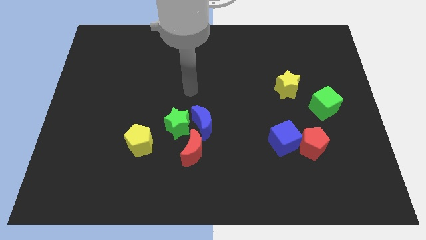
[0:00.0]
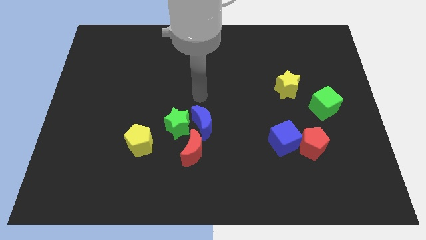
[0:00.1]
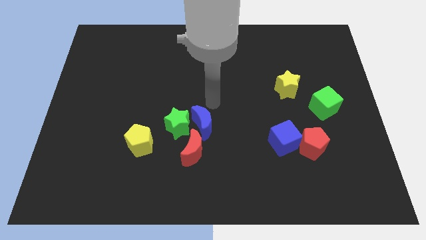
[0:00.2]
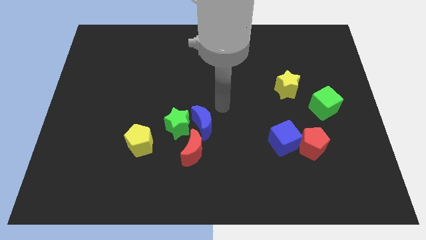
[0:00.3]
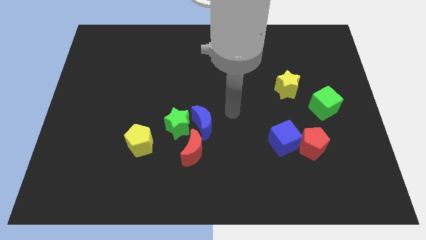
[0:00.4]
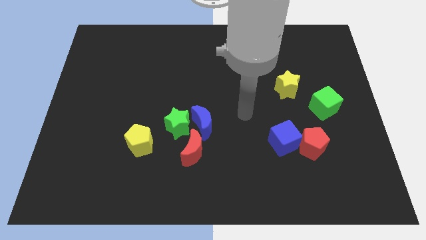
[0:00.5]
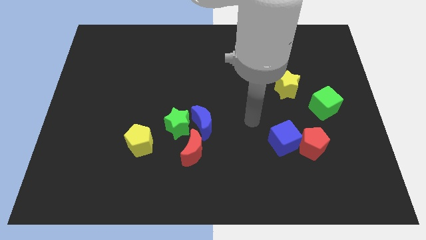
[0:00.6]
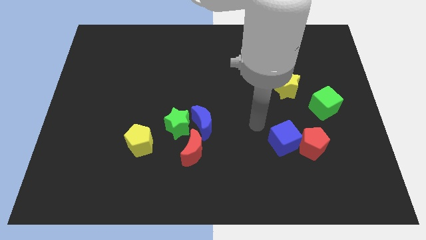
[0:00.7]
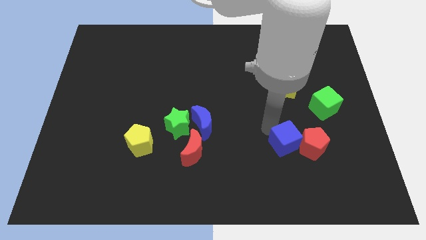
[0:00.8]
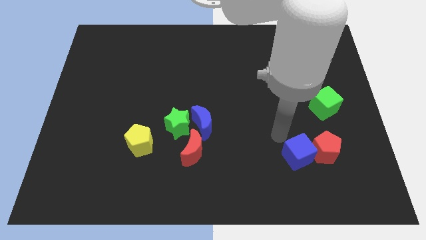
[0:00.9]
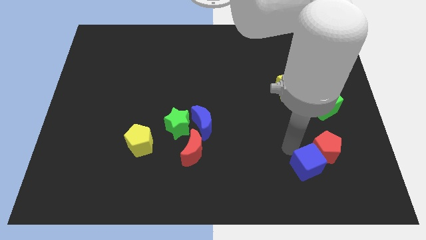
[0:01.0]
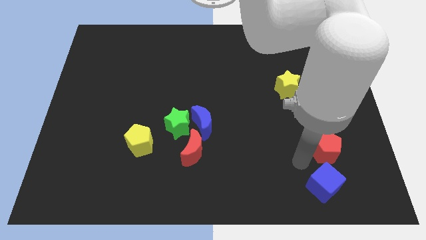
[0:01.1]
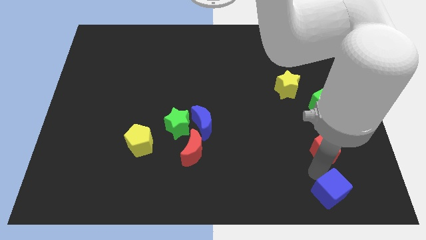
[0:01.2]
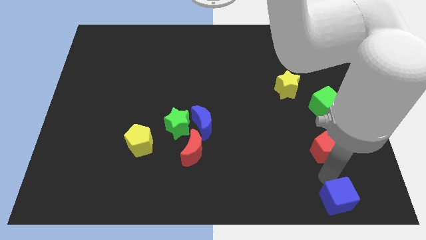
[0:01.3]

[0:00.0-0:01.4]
separate the red pentagon from the blue cube

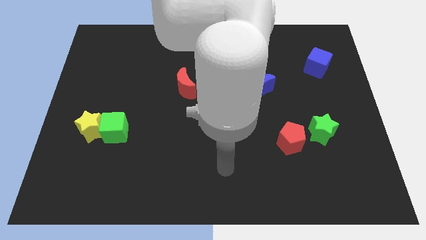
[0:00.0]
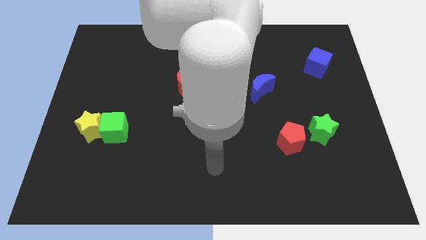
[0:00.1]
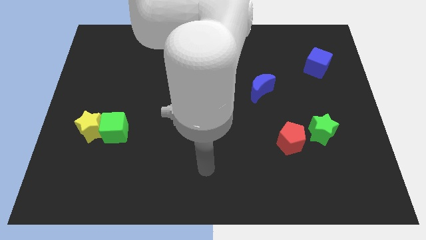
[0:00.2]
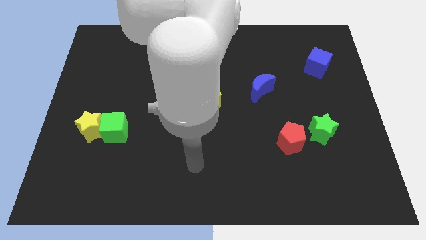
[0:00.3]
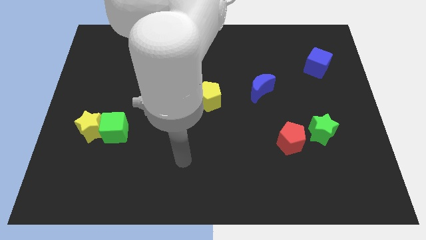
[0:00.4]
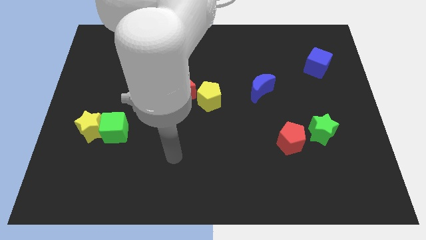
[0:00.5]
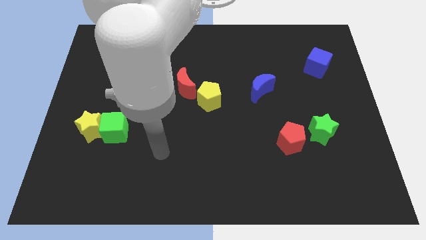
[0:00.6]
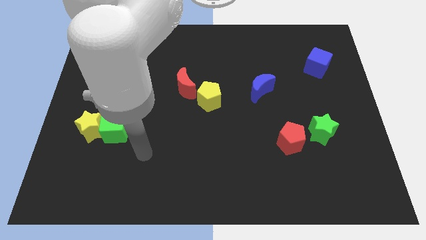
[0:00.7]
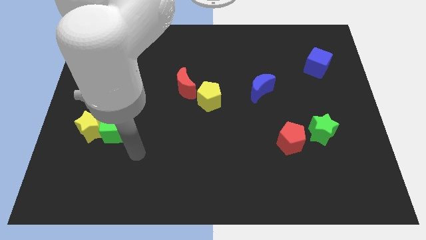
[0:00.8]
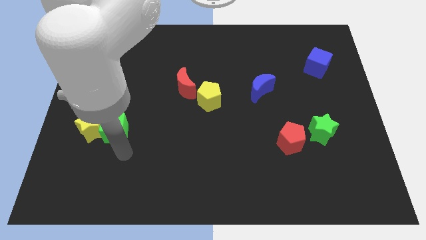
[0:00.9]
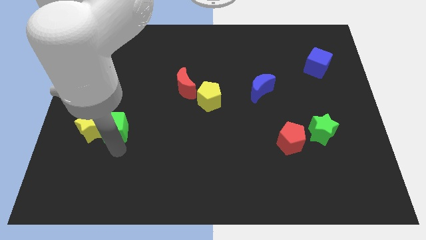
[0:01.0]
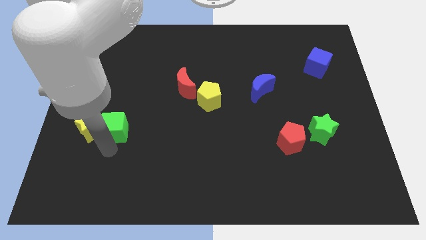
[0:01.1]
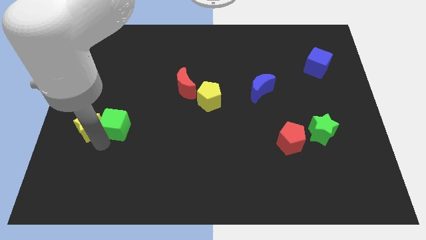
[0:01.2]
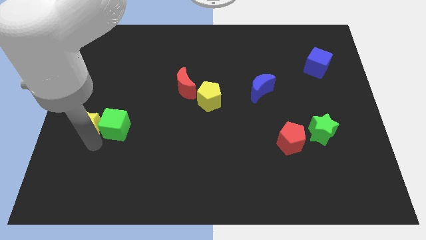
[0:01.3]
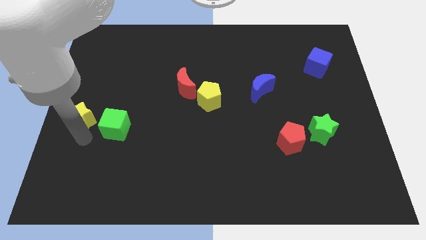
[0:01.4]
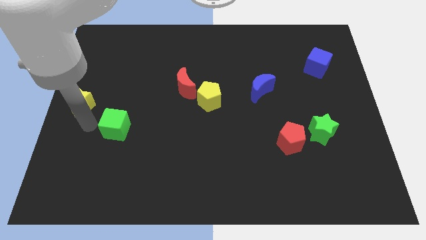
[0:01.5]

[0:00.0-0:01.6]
move the green cube away from the yellow star

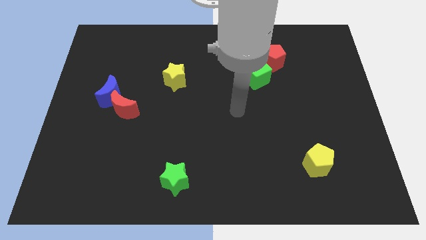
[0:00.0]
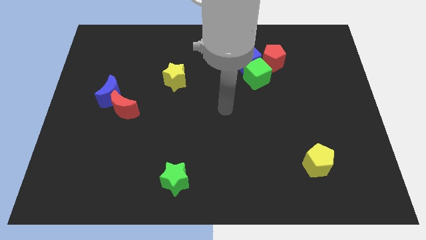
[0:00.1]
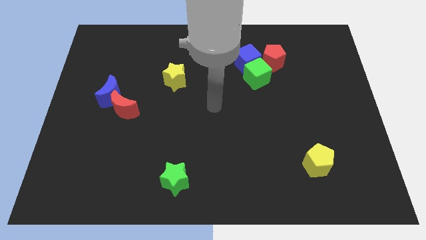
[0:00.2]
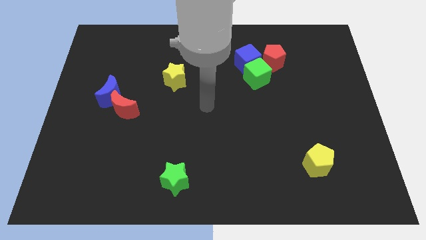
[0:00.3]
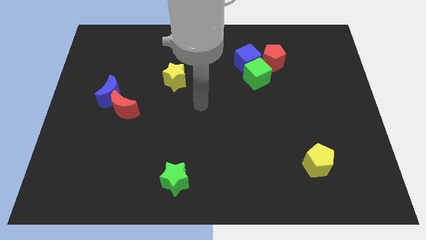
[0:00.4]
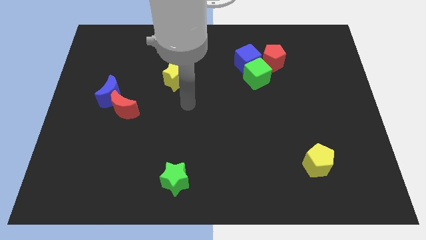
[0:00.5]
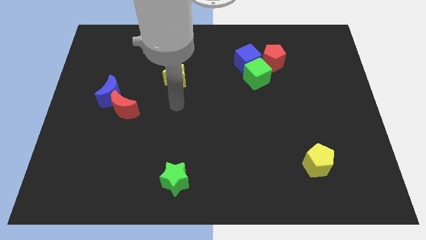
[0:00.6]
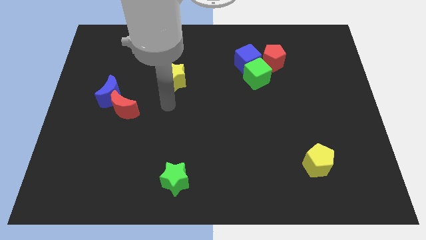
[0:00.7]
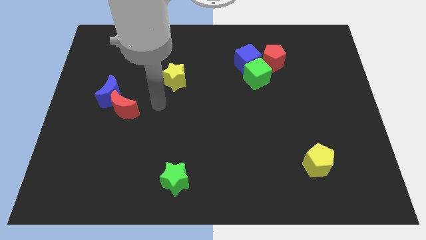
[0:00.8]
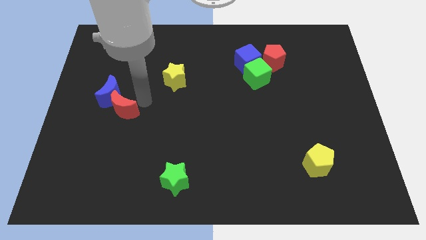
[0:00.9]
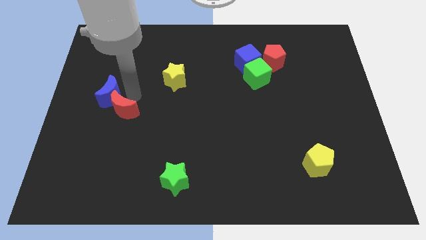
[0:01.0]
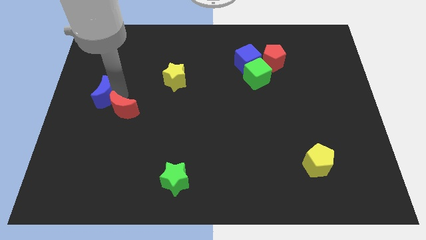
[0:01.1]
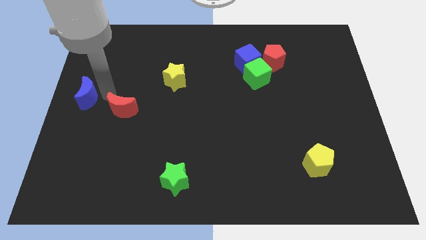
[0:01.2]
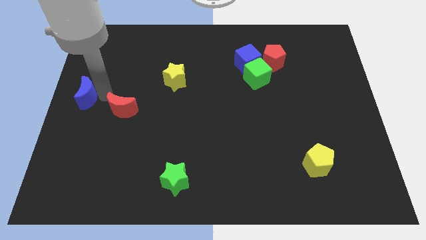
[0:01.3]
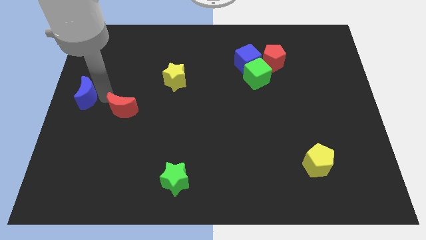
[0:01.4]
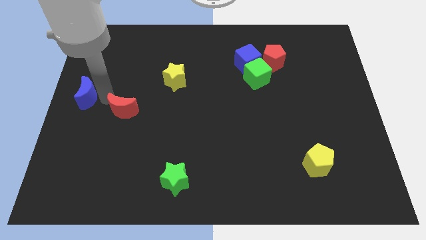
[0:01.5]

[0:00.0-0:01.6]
move the red moon away from the blue moon

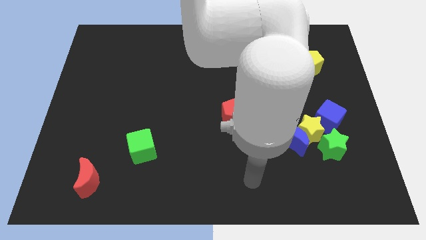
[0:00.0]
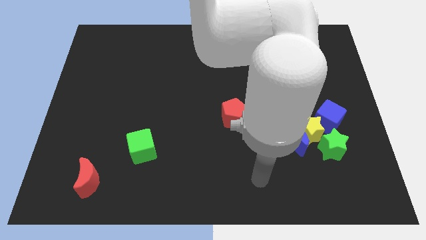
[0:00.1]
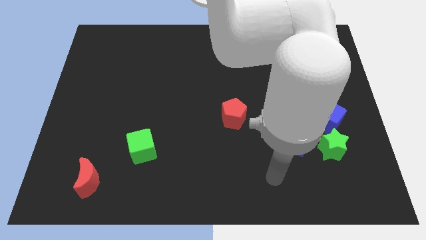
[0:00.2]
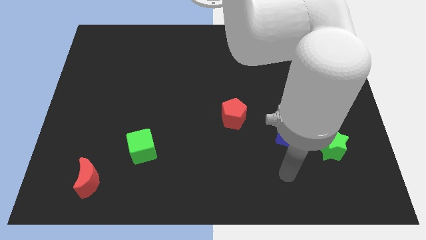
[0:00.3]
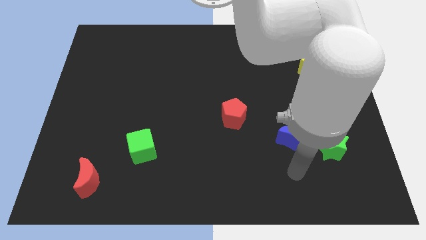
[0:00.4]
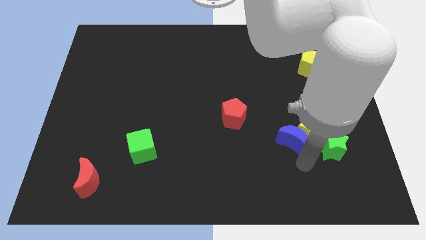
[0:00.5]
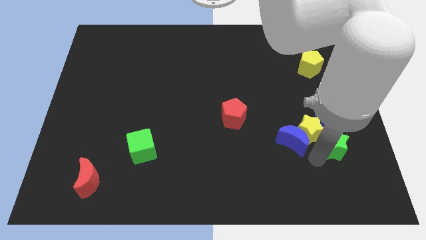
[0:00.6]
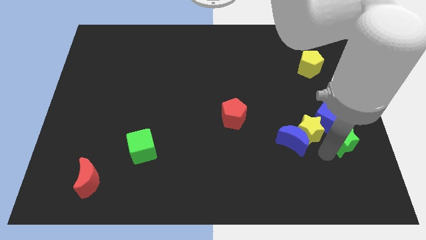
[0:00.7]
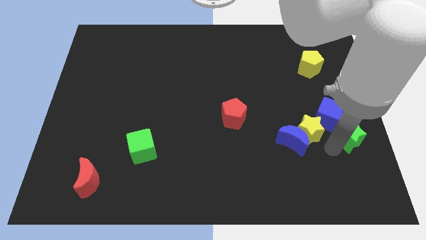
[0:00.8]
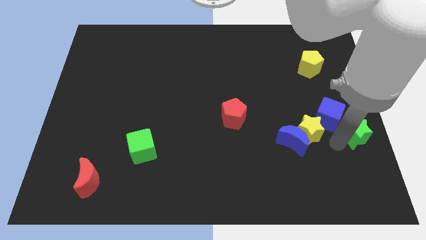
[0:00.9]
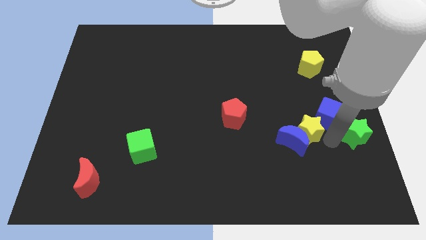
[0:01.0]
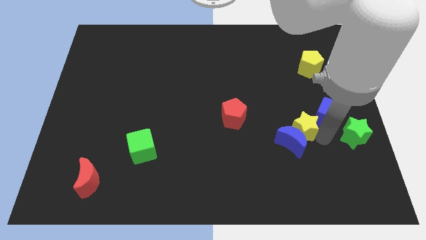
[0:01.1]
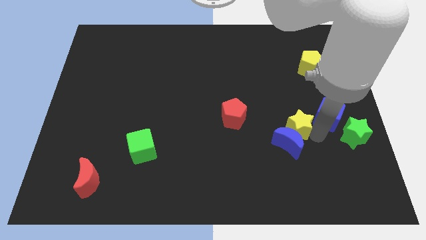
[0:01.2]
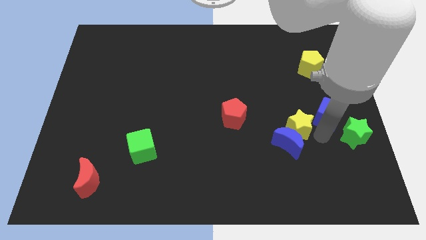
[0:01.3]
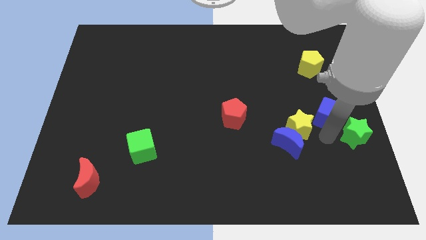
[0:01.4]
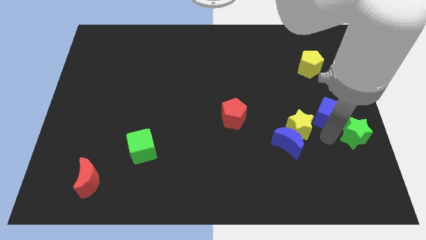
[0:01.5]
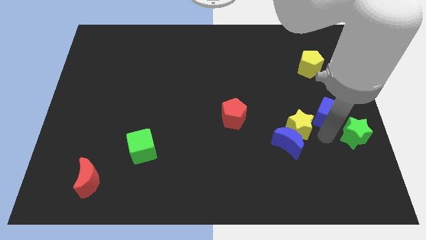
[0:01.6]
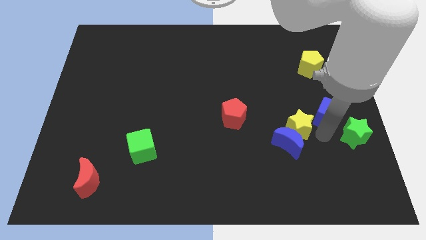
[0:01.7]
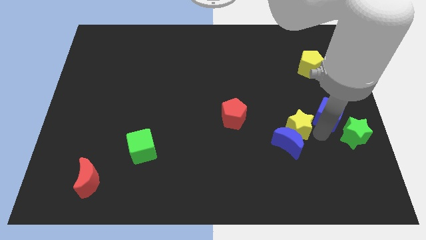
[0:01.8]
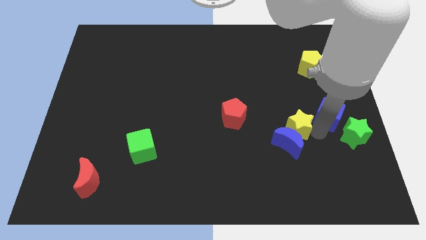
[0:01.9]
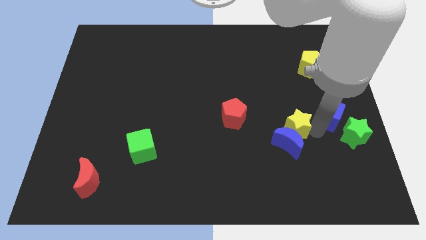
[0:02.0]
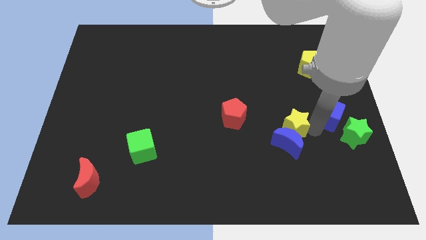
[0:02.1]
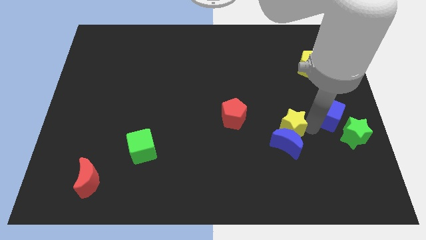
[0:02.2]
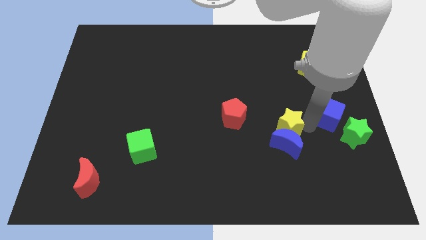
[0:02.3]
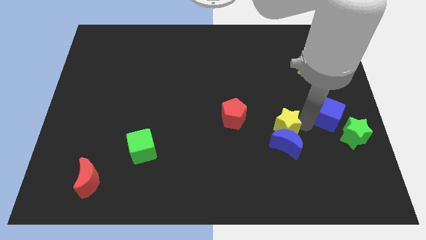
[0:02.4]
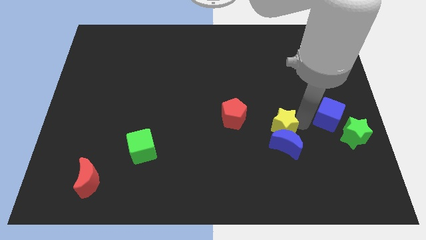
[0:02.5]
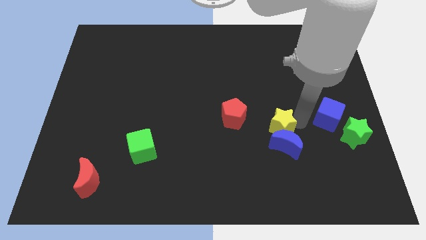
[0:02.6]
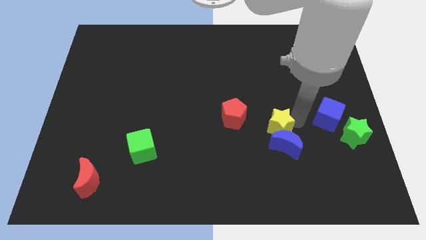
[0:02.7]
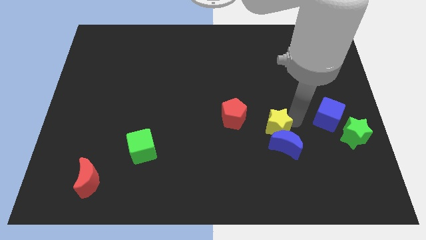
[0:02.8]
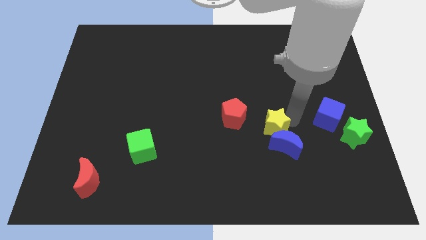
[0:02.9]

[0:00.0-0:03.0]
move the yellow star away from the group

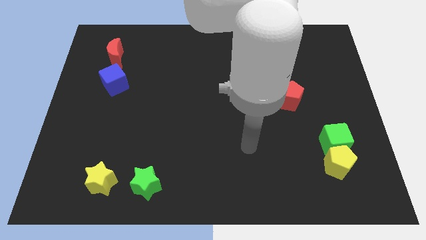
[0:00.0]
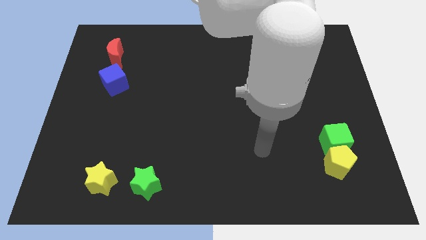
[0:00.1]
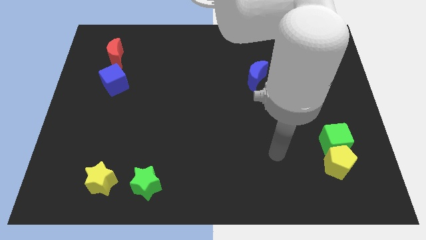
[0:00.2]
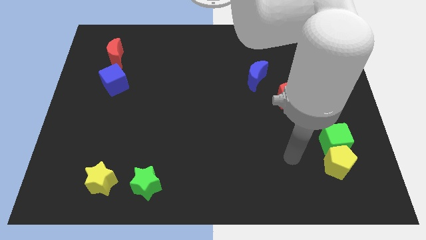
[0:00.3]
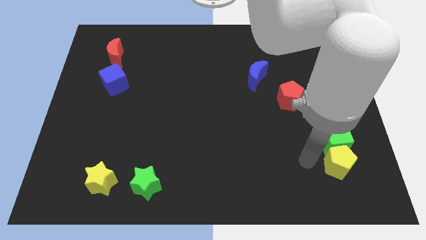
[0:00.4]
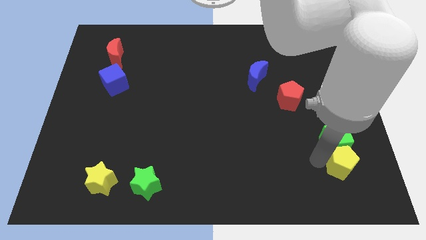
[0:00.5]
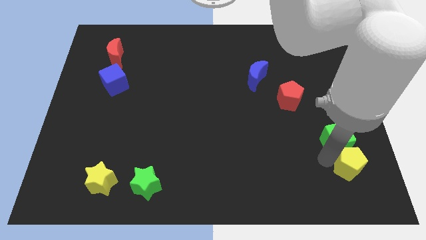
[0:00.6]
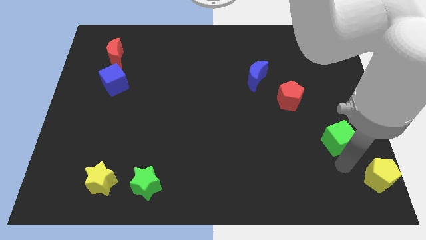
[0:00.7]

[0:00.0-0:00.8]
move the green cube away from the yellow pentagon

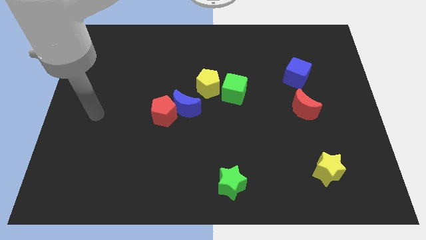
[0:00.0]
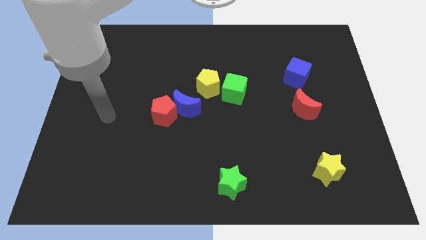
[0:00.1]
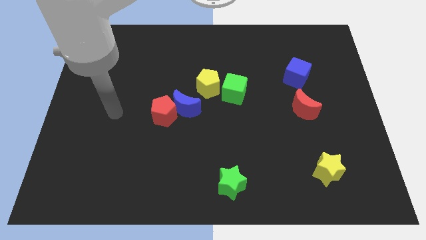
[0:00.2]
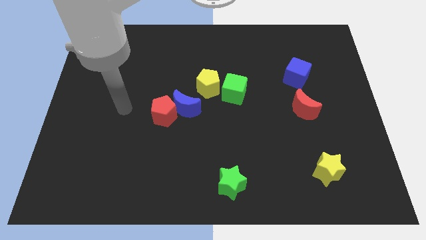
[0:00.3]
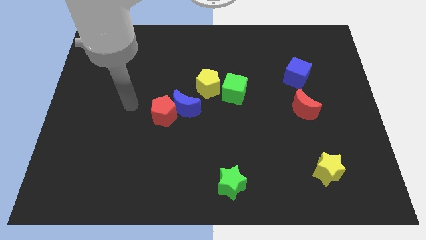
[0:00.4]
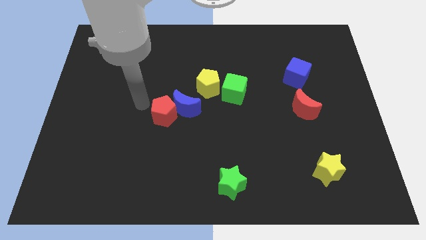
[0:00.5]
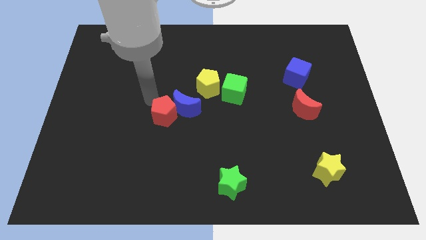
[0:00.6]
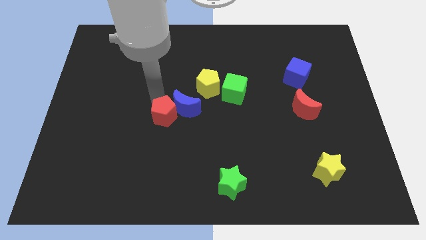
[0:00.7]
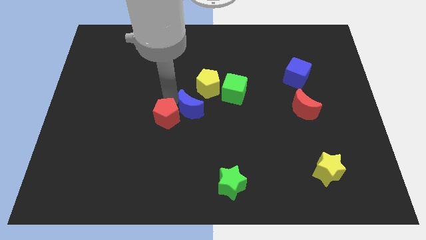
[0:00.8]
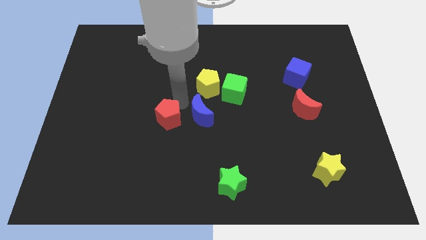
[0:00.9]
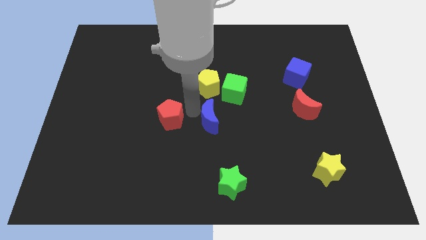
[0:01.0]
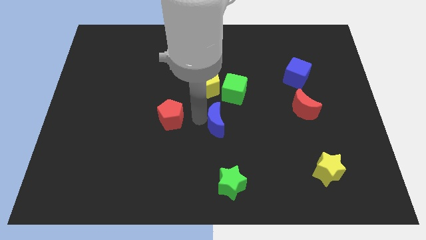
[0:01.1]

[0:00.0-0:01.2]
move the red pentagon away from the blue moon
